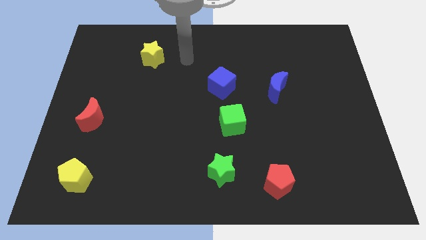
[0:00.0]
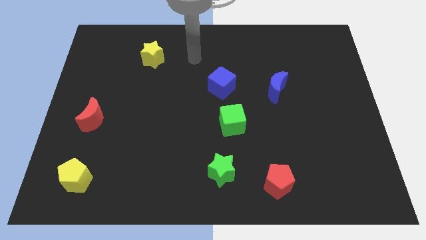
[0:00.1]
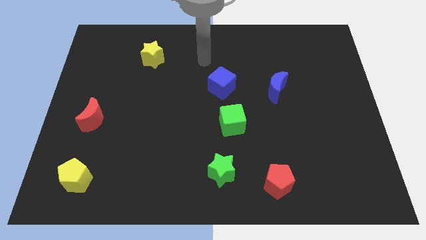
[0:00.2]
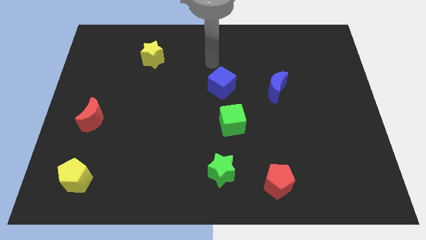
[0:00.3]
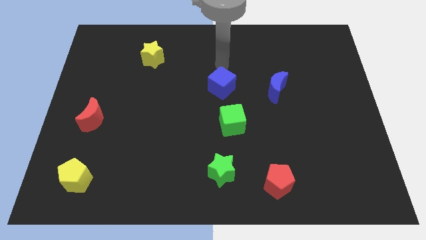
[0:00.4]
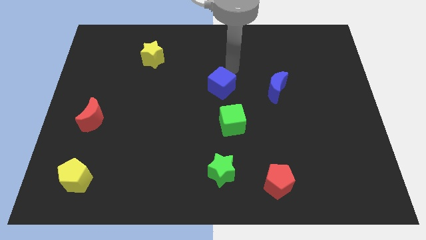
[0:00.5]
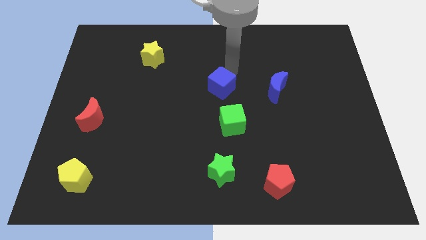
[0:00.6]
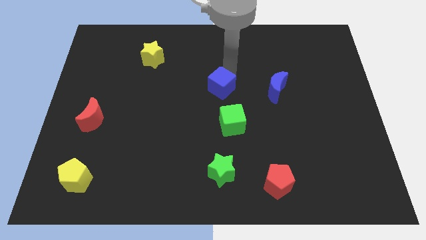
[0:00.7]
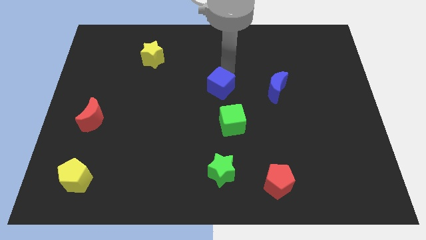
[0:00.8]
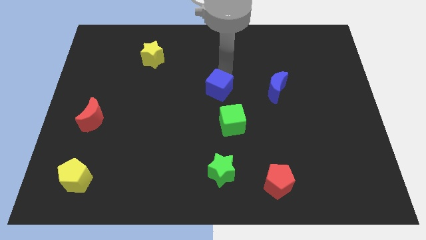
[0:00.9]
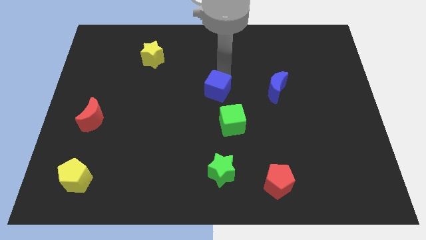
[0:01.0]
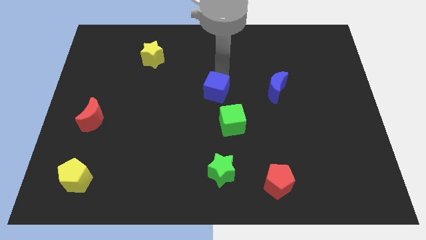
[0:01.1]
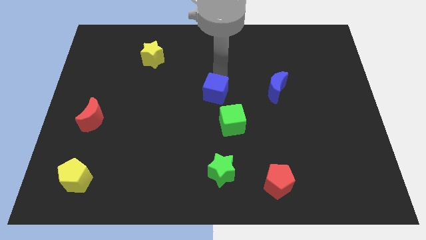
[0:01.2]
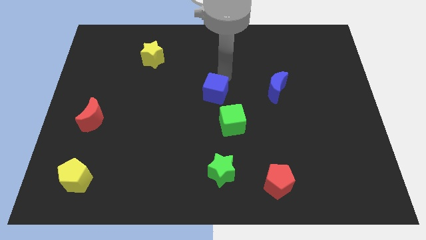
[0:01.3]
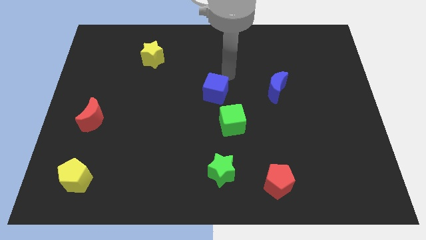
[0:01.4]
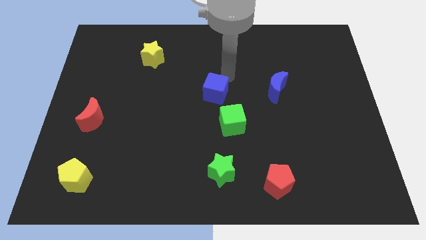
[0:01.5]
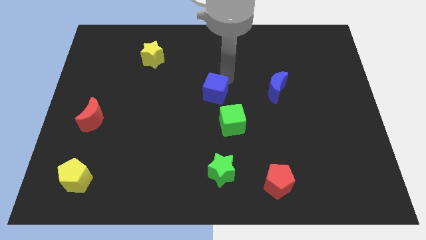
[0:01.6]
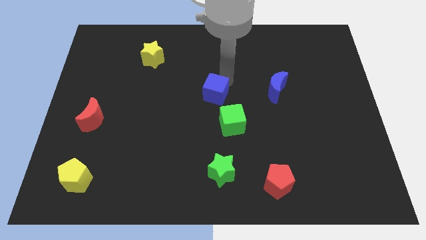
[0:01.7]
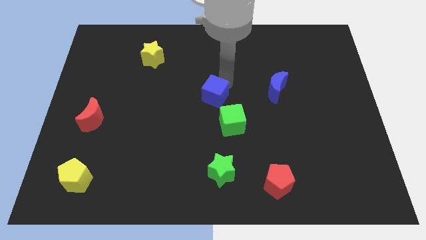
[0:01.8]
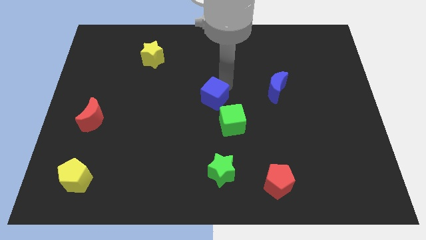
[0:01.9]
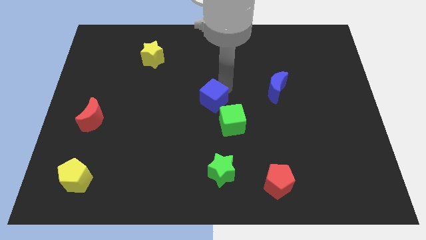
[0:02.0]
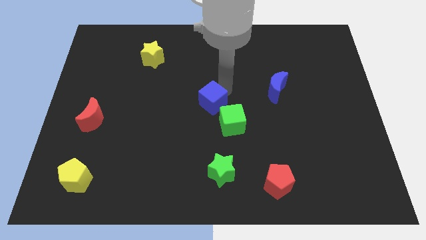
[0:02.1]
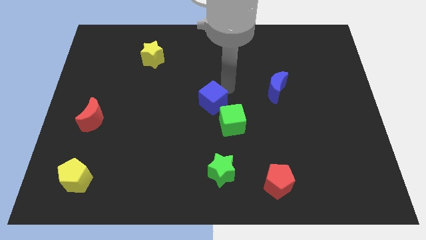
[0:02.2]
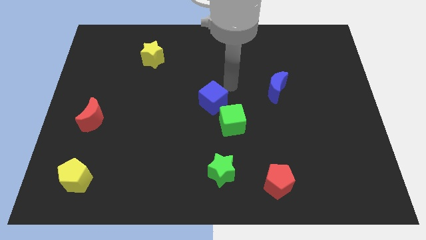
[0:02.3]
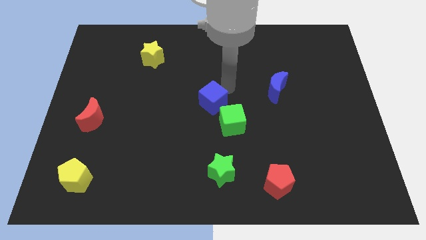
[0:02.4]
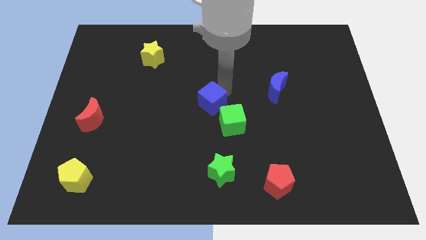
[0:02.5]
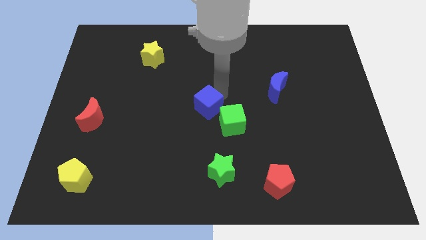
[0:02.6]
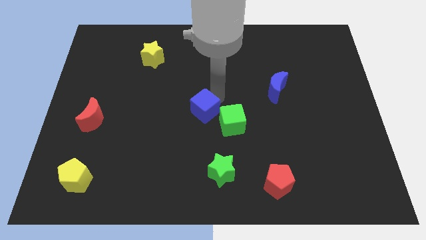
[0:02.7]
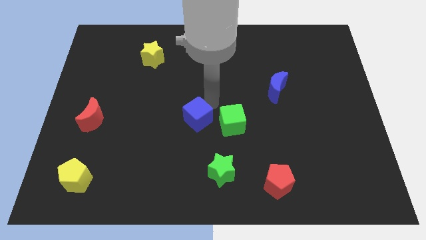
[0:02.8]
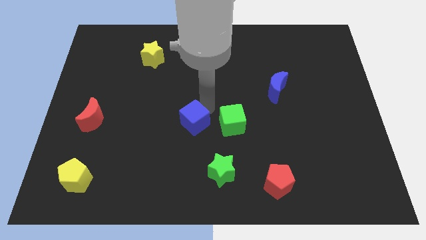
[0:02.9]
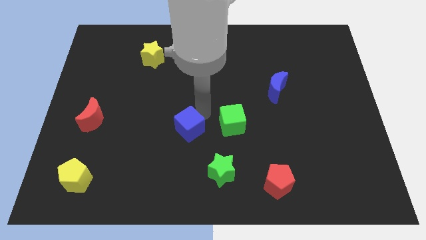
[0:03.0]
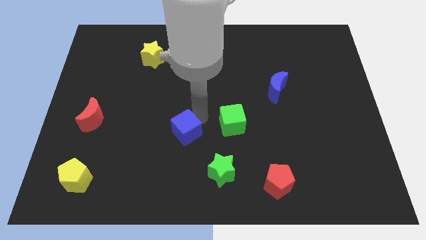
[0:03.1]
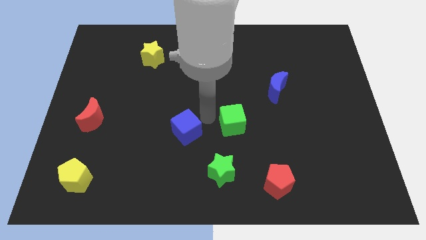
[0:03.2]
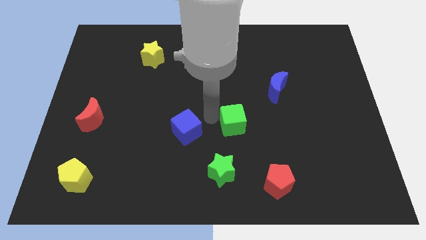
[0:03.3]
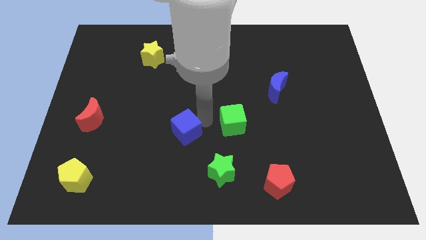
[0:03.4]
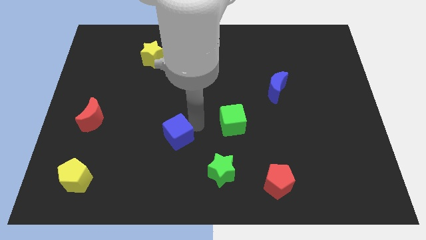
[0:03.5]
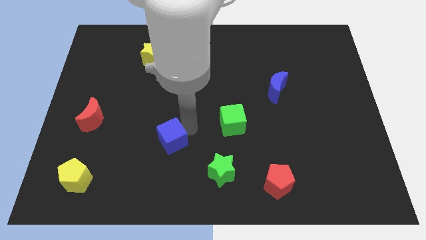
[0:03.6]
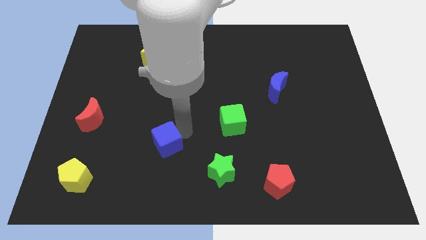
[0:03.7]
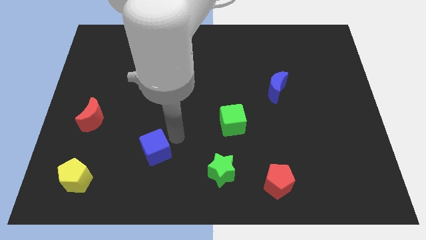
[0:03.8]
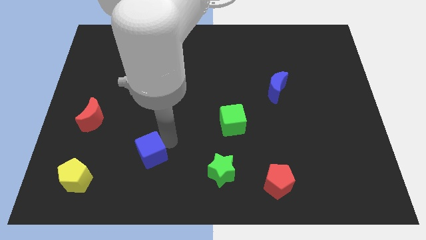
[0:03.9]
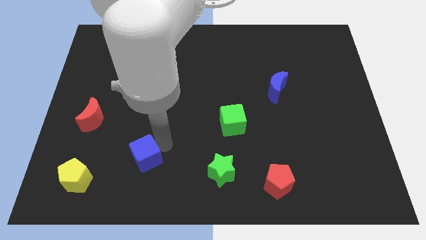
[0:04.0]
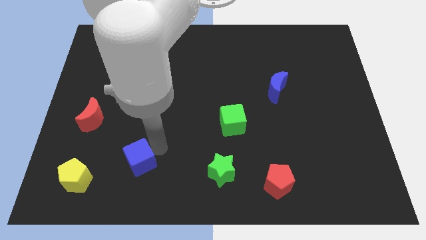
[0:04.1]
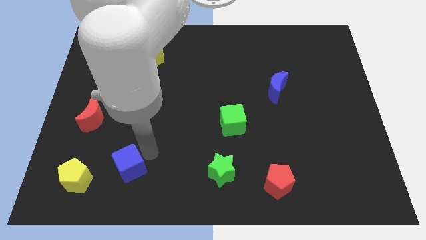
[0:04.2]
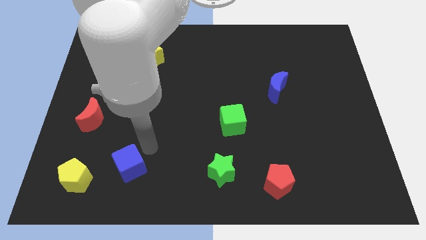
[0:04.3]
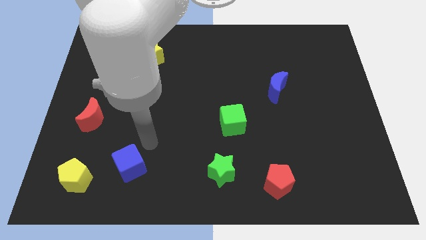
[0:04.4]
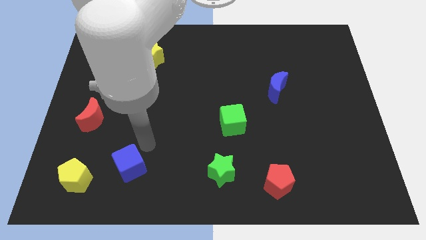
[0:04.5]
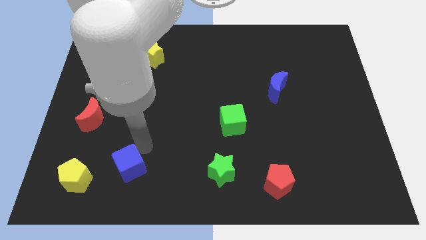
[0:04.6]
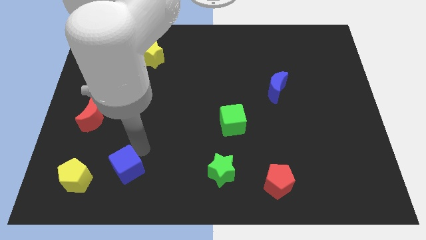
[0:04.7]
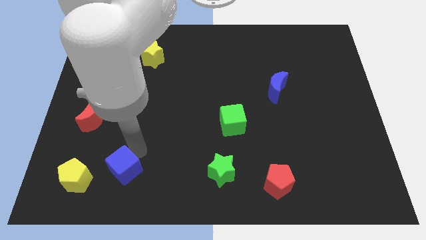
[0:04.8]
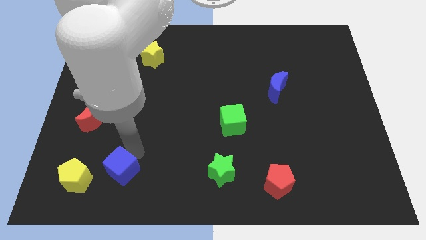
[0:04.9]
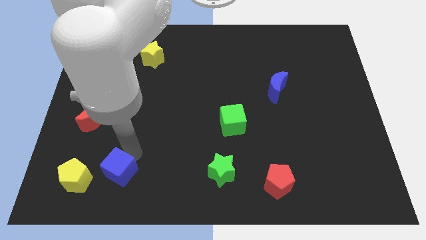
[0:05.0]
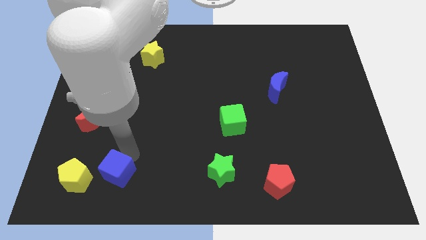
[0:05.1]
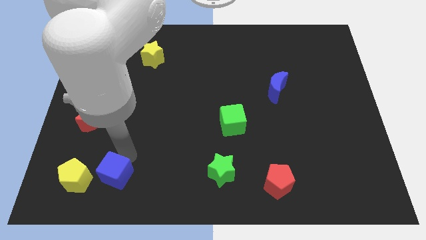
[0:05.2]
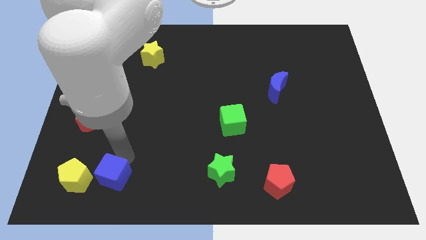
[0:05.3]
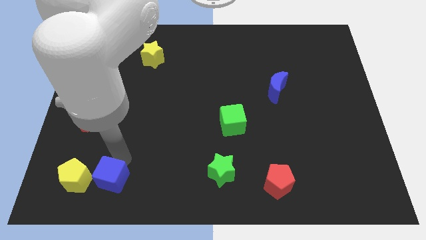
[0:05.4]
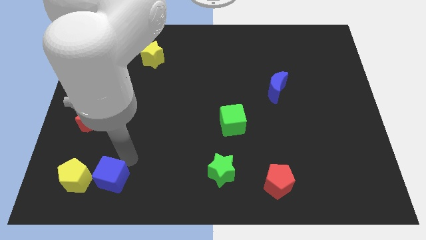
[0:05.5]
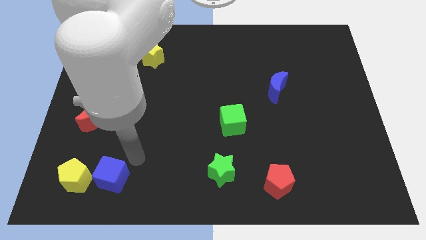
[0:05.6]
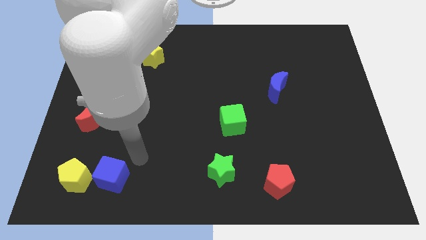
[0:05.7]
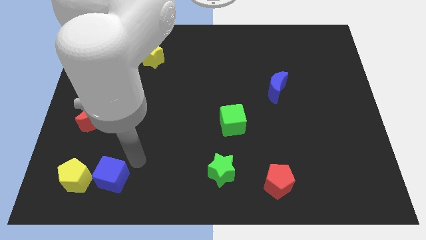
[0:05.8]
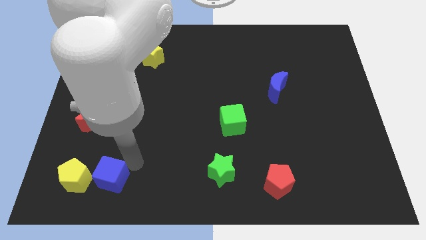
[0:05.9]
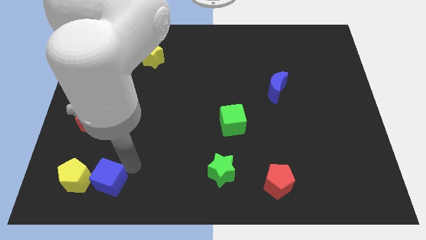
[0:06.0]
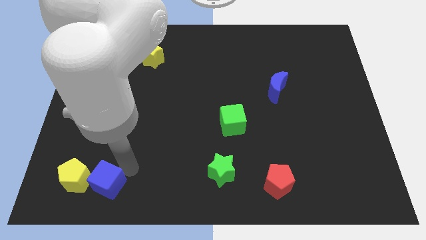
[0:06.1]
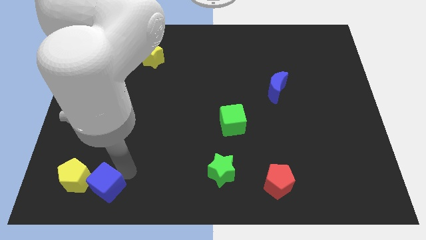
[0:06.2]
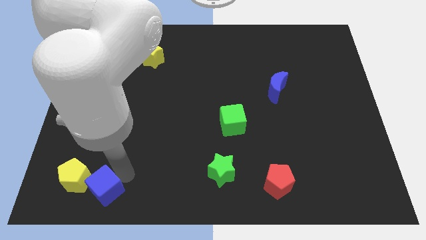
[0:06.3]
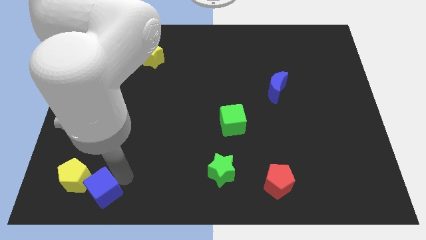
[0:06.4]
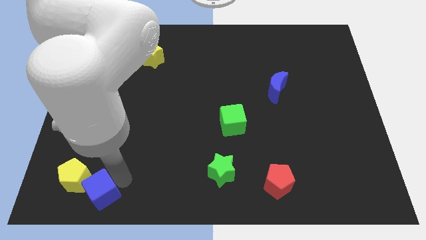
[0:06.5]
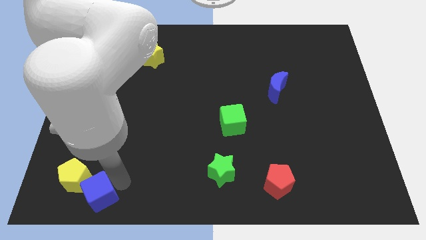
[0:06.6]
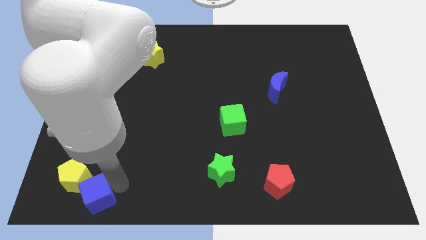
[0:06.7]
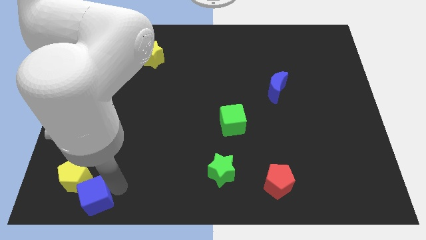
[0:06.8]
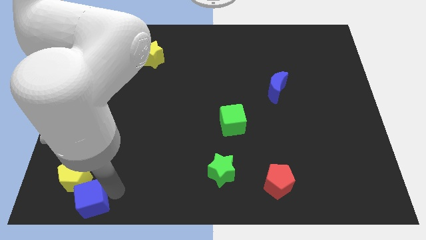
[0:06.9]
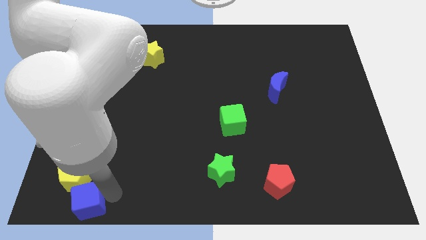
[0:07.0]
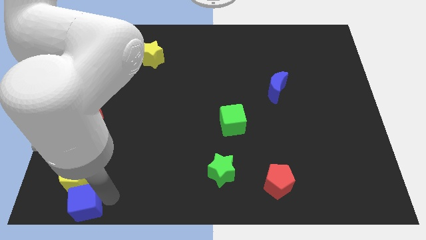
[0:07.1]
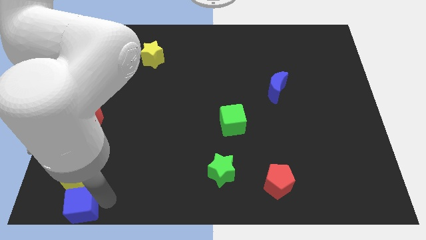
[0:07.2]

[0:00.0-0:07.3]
push the blue cube to the lower left corner
